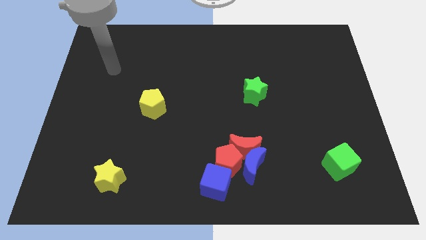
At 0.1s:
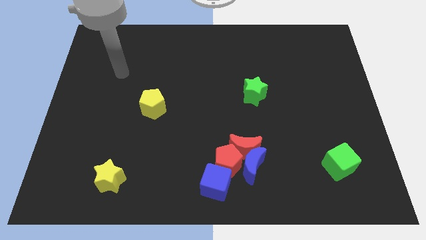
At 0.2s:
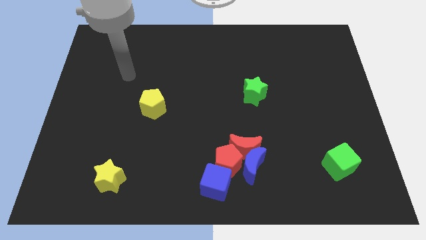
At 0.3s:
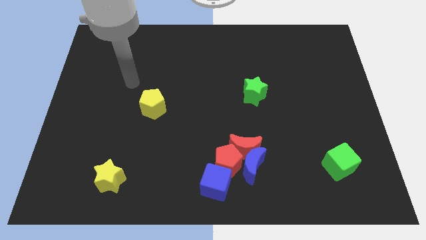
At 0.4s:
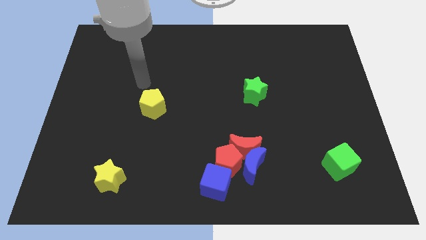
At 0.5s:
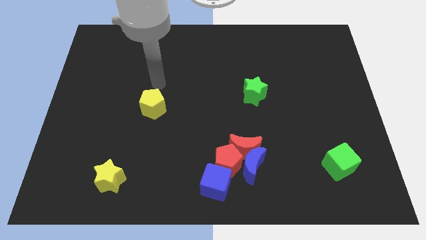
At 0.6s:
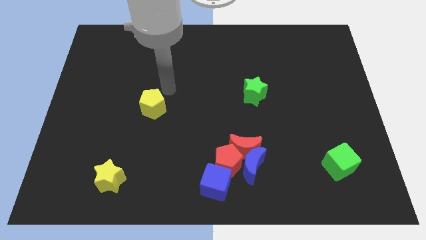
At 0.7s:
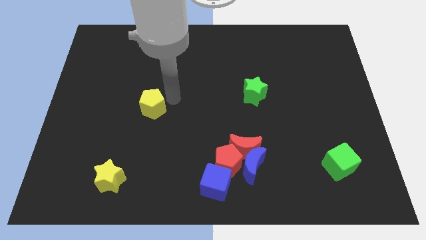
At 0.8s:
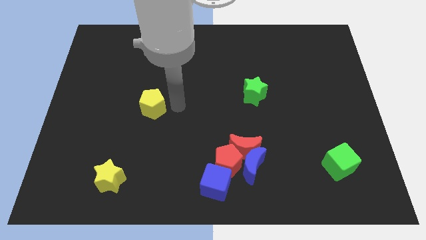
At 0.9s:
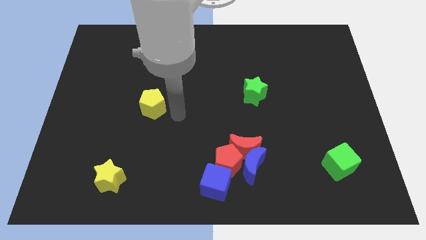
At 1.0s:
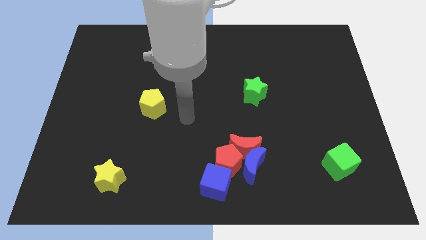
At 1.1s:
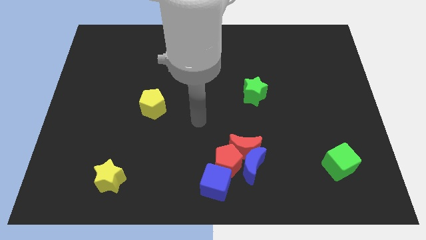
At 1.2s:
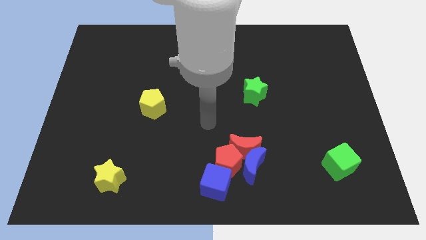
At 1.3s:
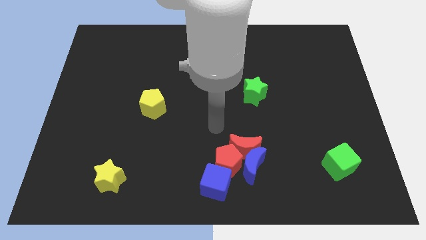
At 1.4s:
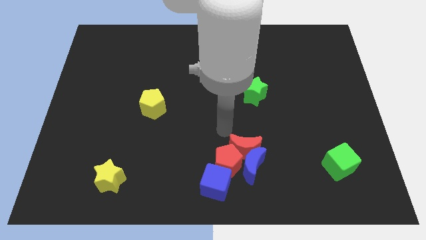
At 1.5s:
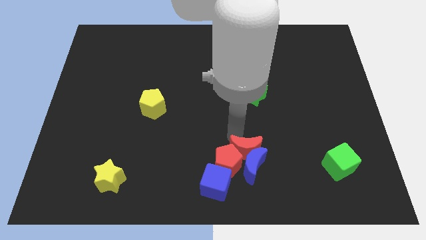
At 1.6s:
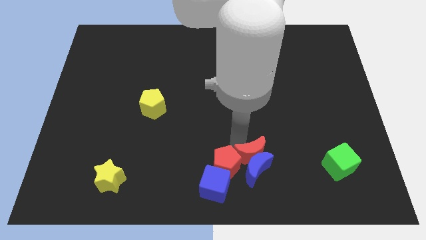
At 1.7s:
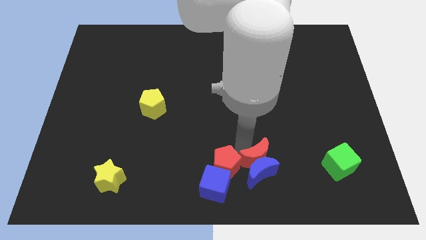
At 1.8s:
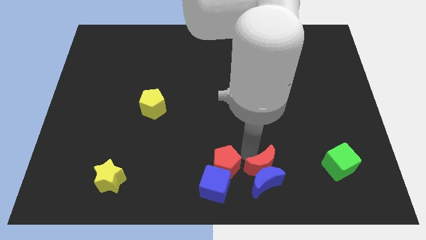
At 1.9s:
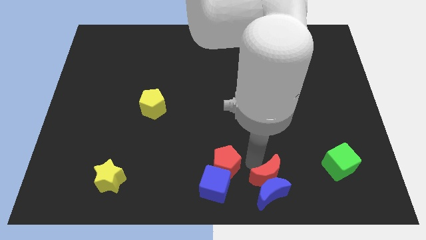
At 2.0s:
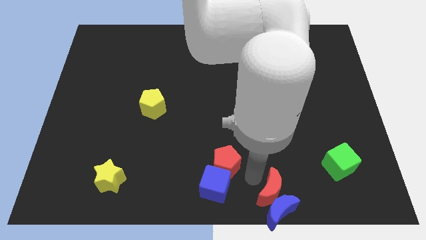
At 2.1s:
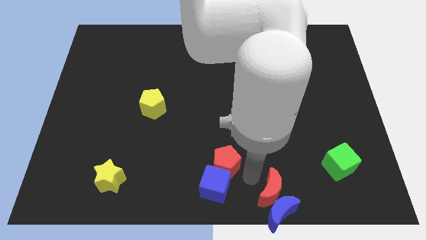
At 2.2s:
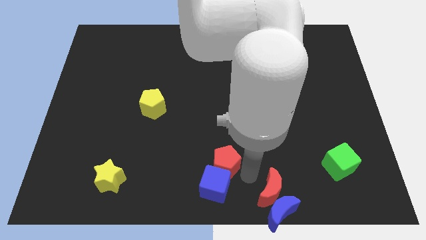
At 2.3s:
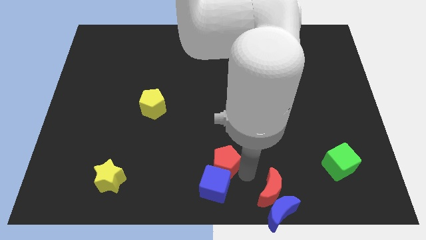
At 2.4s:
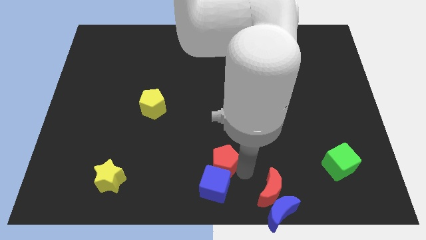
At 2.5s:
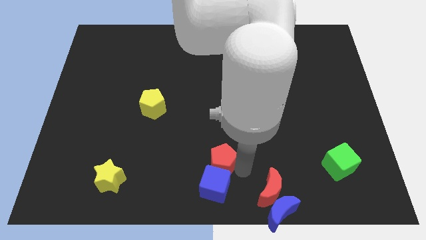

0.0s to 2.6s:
pull the red pentagon apart from the red moon, blue moon, and blue cube

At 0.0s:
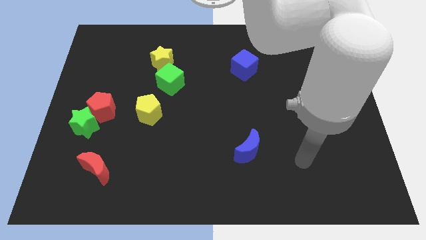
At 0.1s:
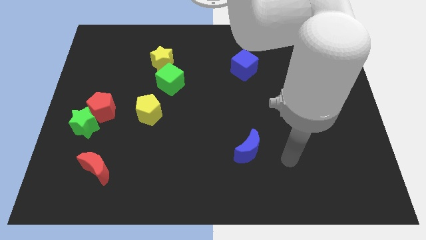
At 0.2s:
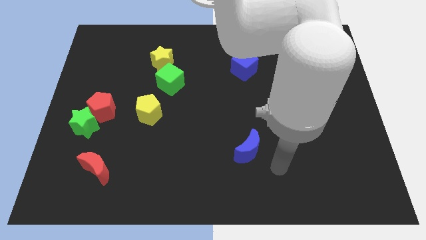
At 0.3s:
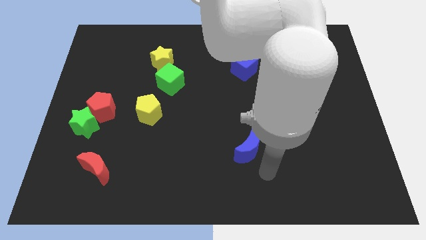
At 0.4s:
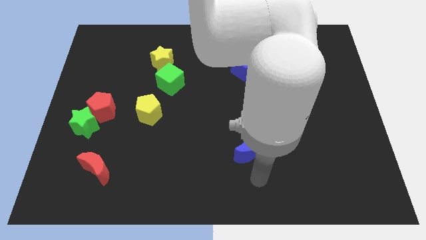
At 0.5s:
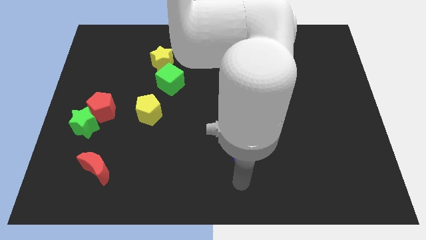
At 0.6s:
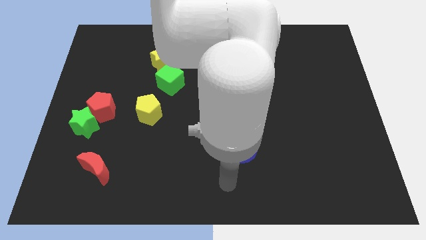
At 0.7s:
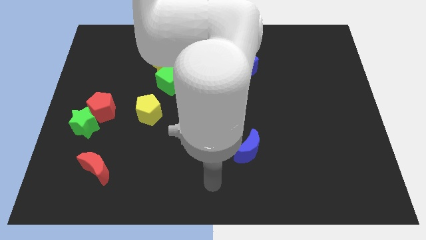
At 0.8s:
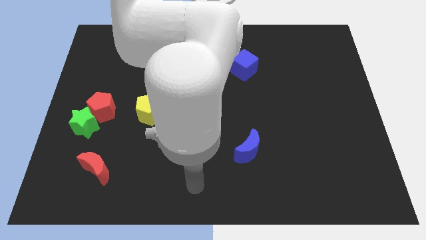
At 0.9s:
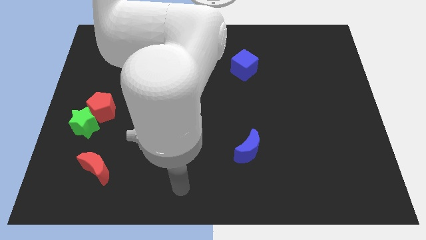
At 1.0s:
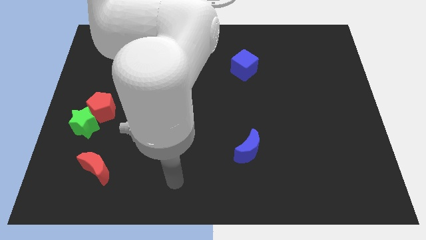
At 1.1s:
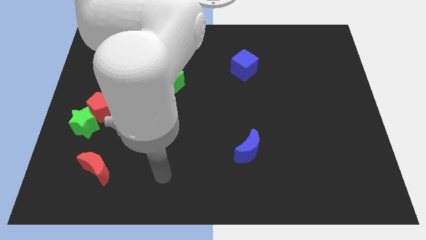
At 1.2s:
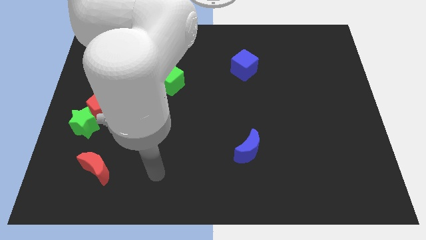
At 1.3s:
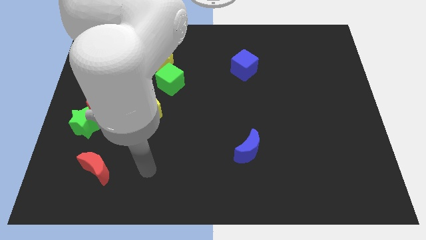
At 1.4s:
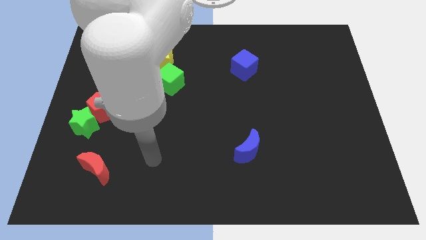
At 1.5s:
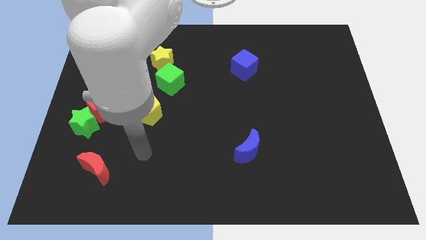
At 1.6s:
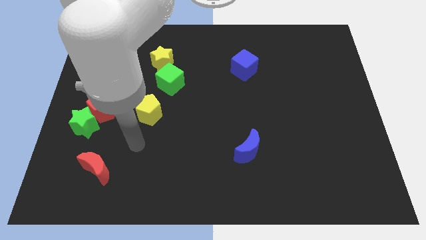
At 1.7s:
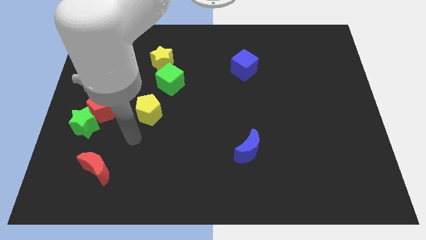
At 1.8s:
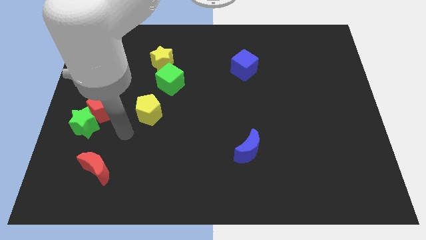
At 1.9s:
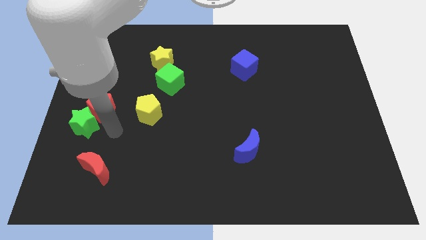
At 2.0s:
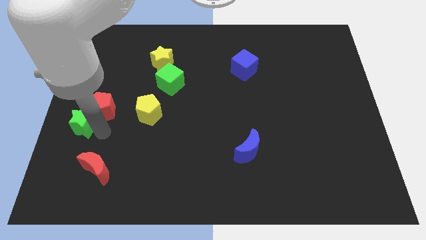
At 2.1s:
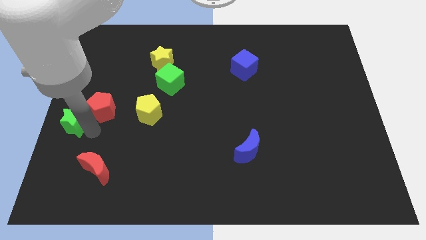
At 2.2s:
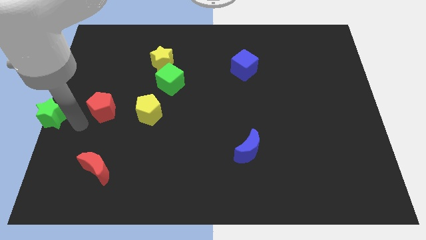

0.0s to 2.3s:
pull the red pentagon apart from the green star

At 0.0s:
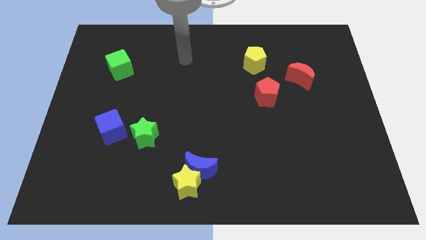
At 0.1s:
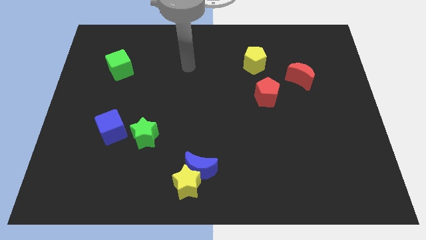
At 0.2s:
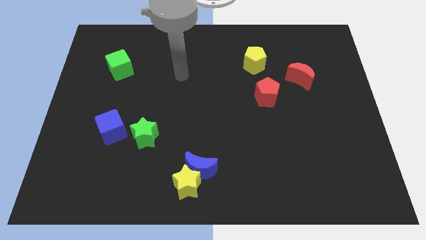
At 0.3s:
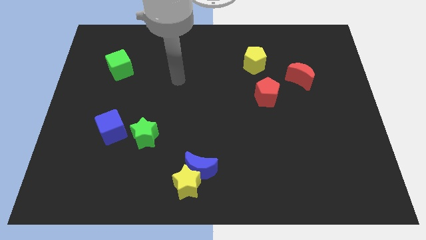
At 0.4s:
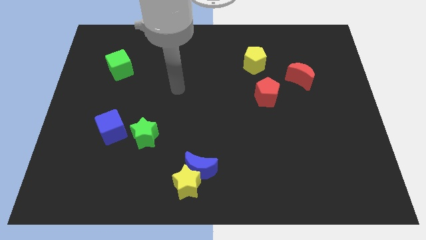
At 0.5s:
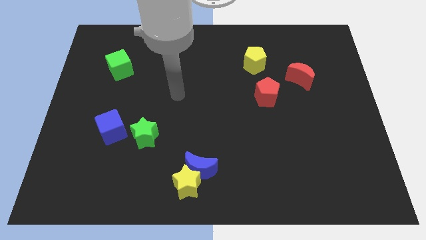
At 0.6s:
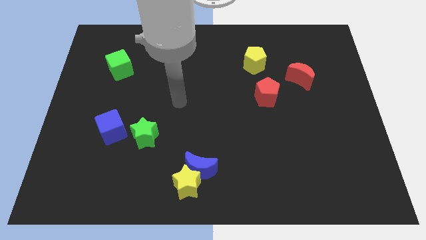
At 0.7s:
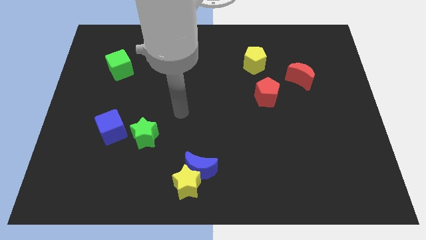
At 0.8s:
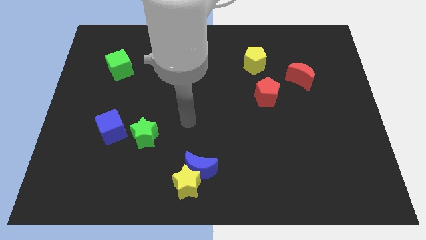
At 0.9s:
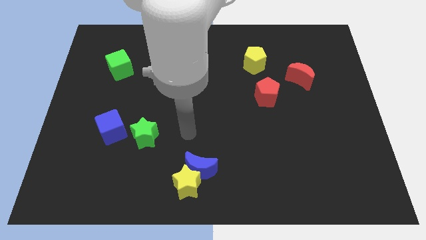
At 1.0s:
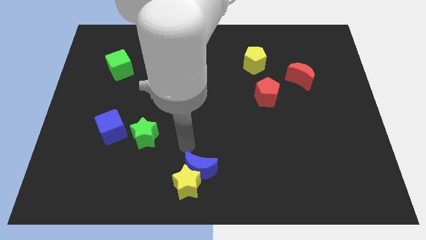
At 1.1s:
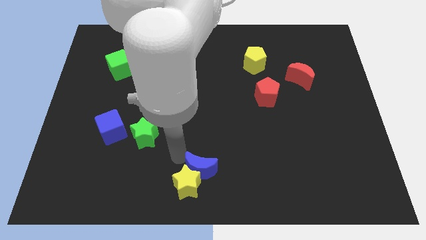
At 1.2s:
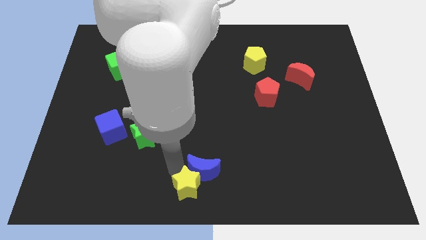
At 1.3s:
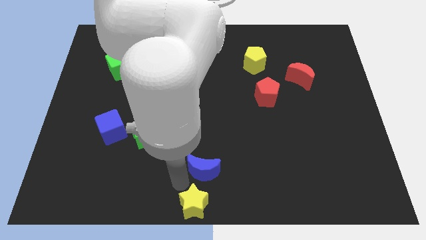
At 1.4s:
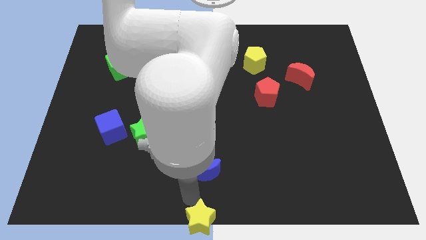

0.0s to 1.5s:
separate the blue moon from the yellow star

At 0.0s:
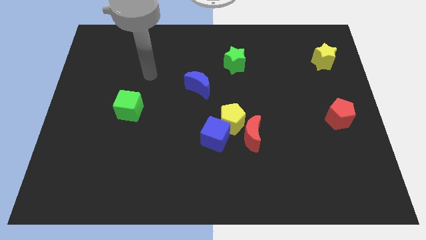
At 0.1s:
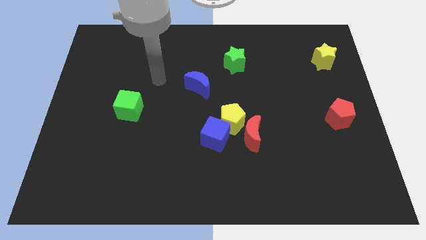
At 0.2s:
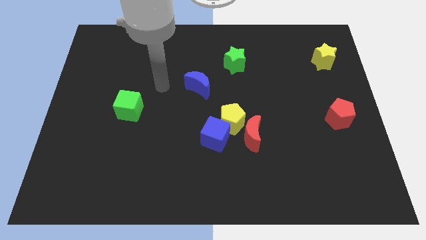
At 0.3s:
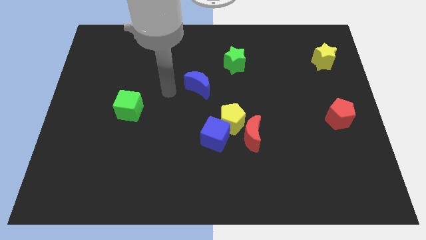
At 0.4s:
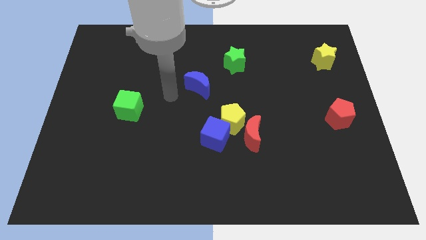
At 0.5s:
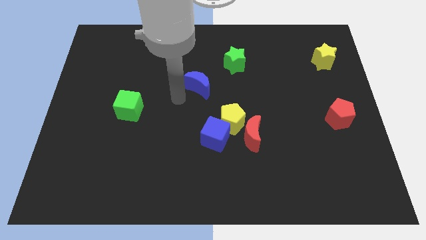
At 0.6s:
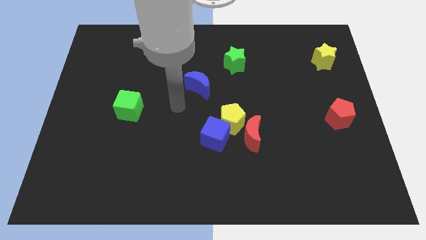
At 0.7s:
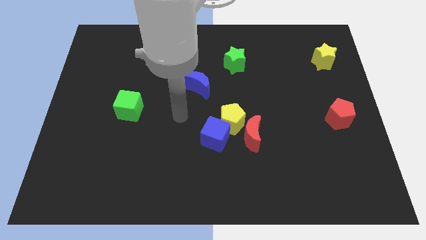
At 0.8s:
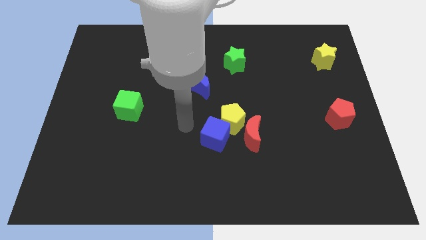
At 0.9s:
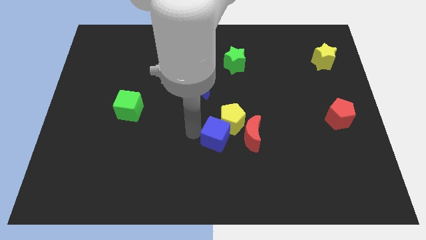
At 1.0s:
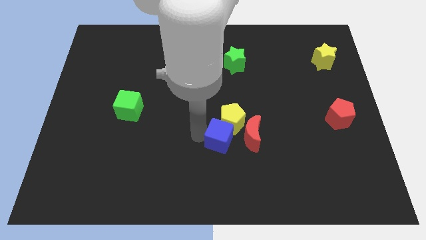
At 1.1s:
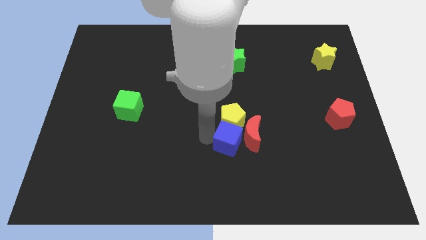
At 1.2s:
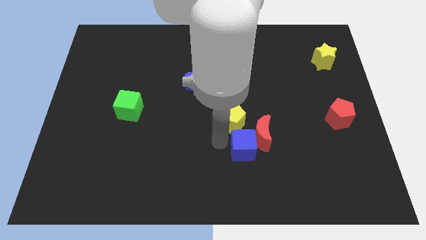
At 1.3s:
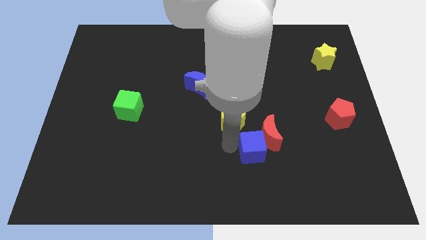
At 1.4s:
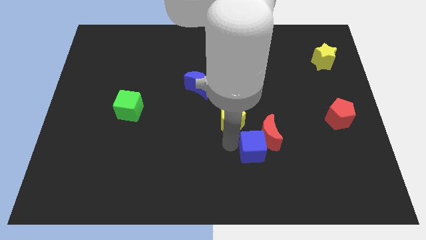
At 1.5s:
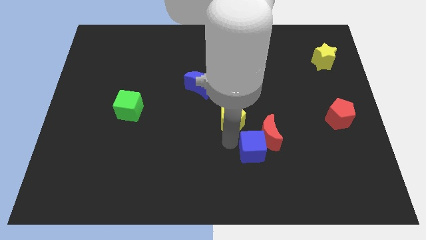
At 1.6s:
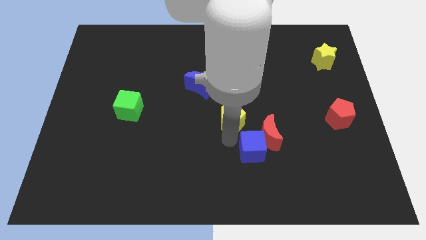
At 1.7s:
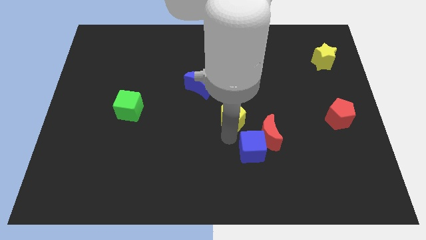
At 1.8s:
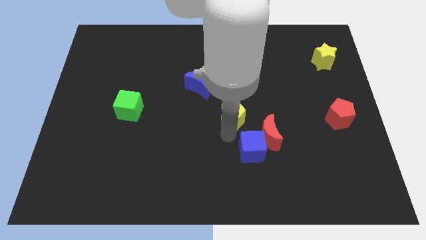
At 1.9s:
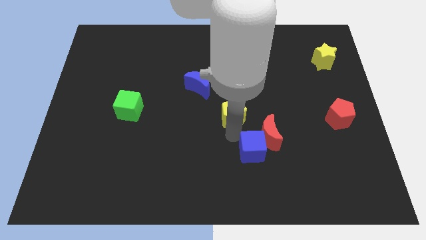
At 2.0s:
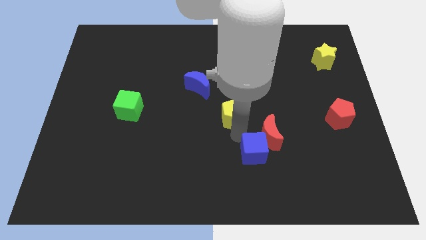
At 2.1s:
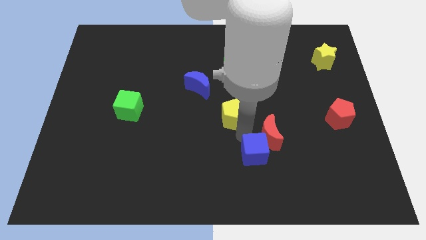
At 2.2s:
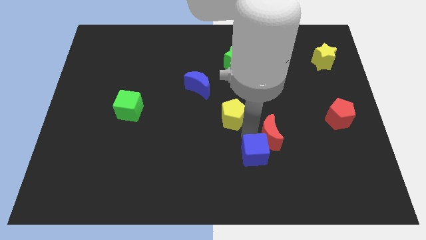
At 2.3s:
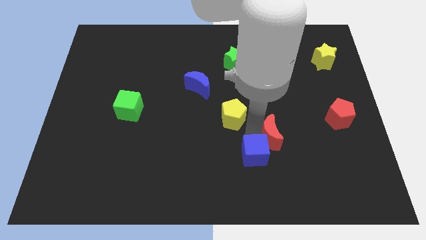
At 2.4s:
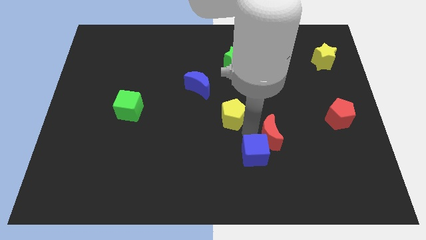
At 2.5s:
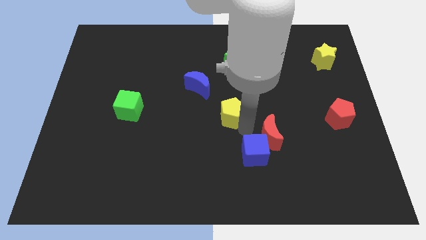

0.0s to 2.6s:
pull the yellow pentagon apart from the blue cube and red moon

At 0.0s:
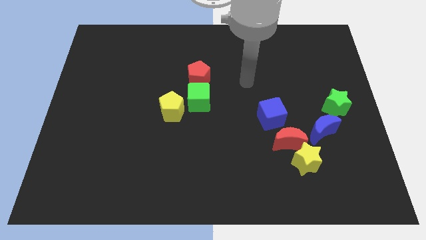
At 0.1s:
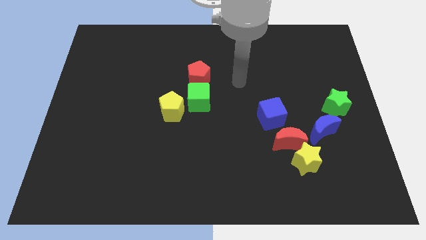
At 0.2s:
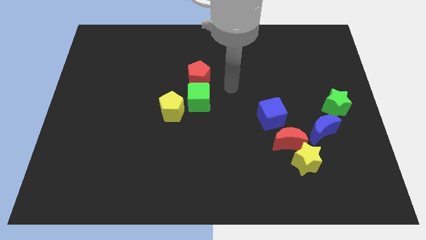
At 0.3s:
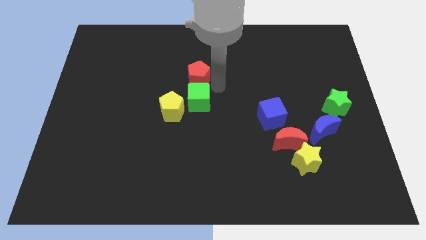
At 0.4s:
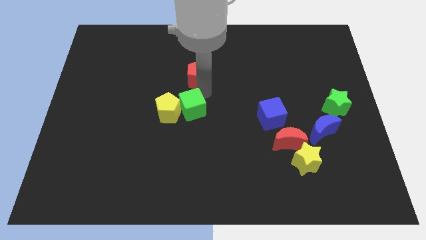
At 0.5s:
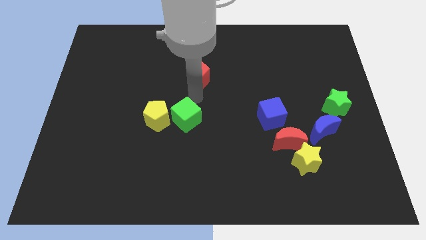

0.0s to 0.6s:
pull the red pentagon apart from the green cube
